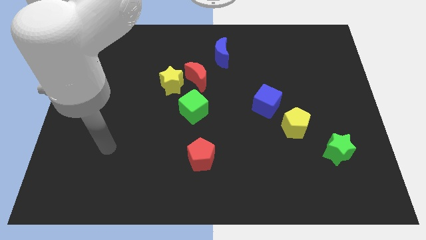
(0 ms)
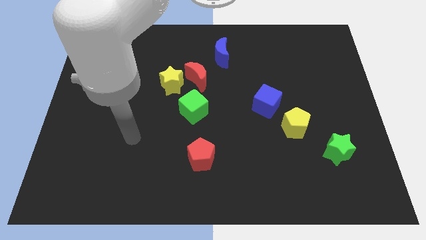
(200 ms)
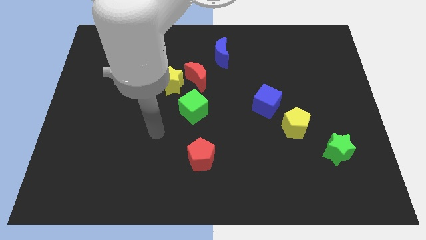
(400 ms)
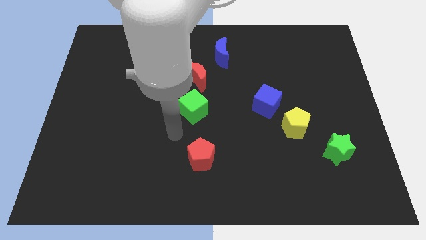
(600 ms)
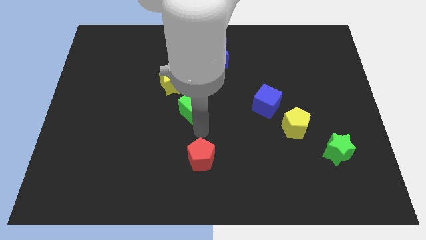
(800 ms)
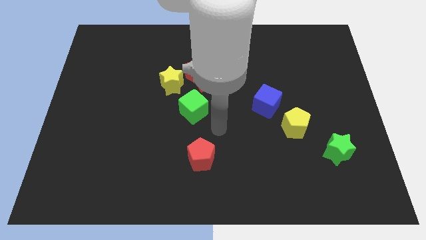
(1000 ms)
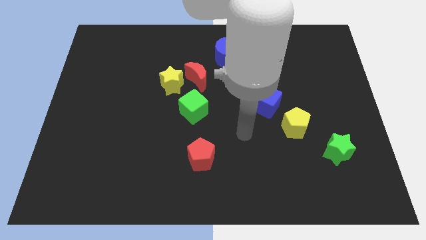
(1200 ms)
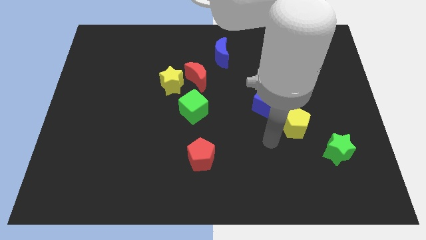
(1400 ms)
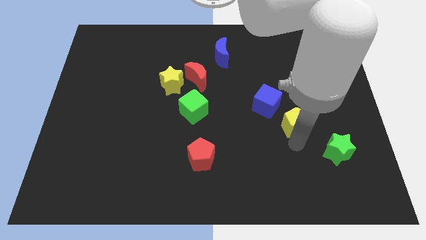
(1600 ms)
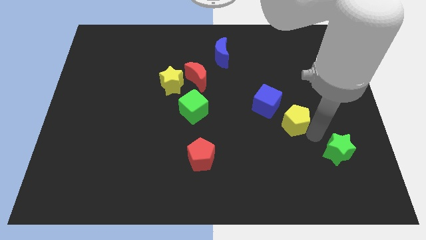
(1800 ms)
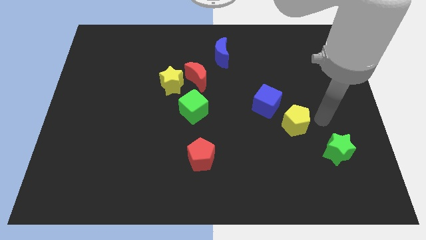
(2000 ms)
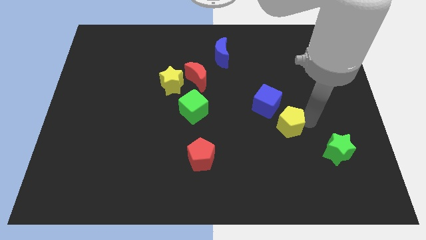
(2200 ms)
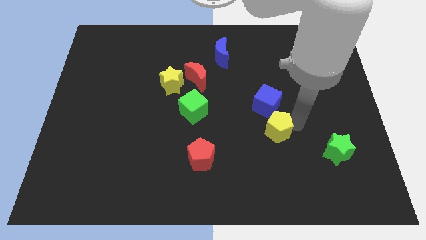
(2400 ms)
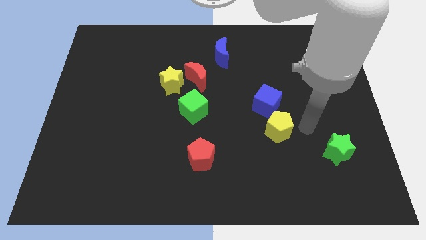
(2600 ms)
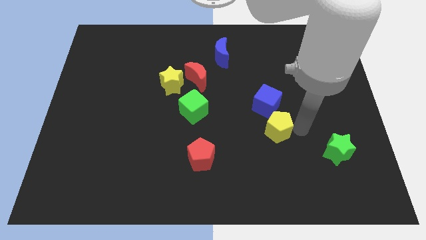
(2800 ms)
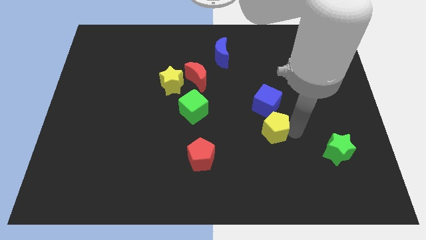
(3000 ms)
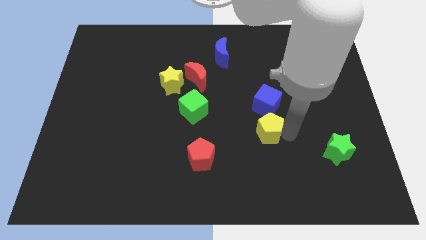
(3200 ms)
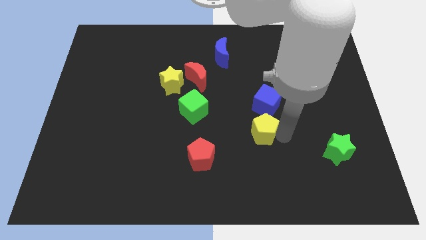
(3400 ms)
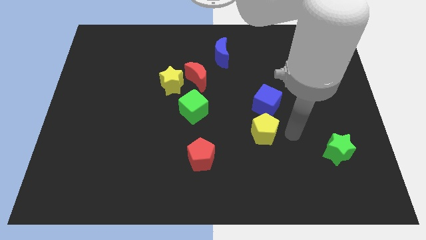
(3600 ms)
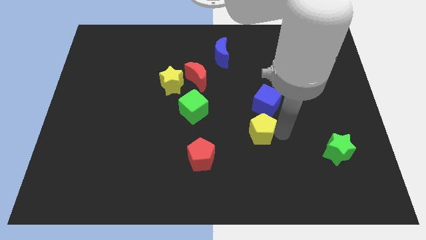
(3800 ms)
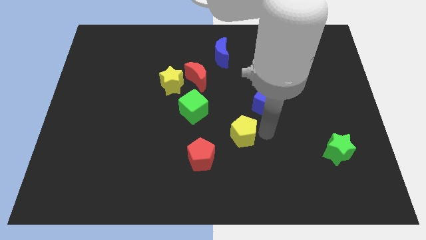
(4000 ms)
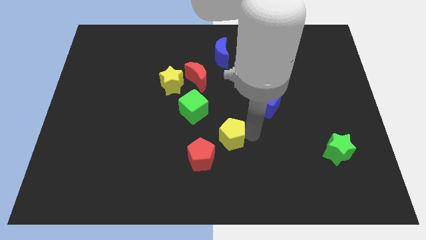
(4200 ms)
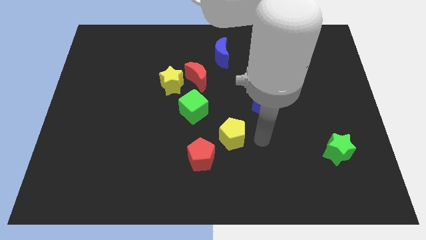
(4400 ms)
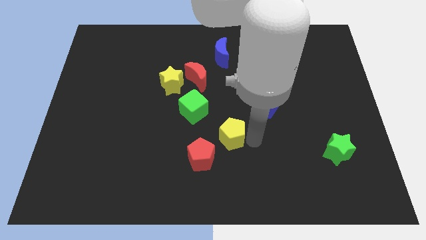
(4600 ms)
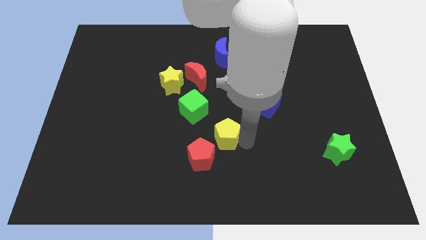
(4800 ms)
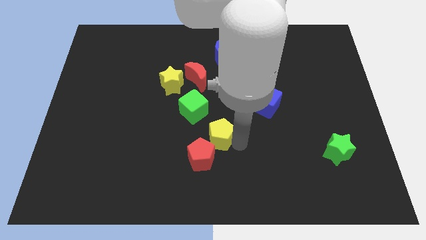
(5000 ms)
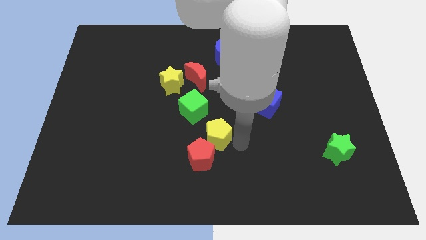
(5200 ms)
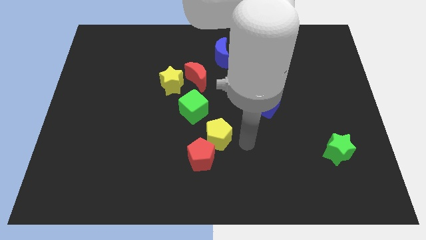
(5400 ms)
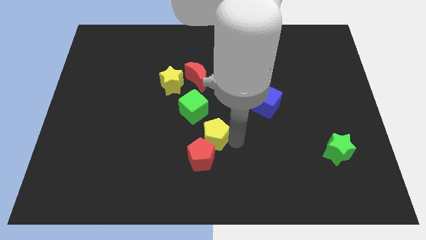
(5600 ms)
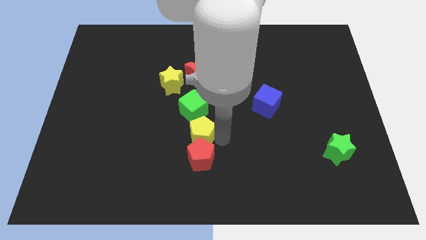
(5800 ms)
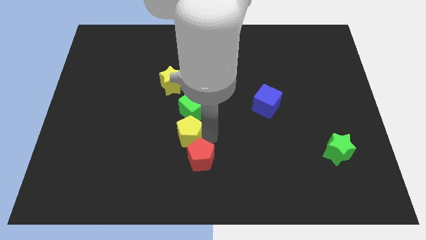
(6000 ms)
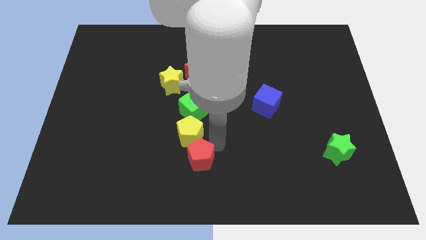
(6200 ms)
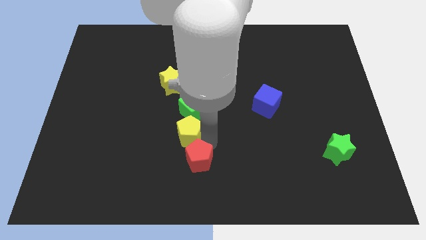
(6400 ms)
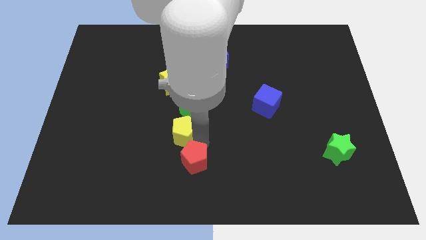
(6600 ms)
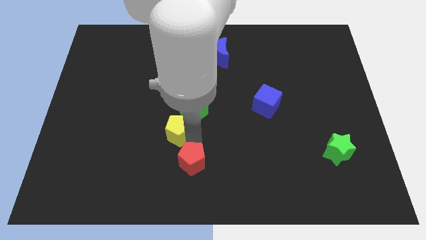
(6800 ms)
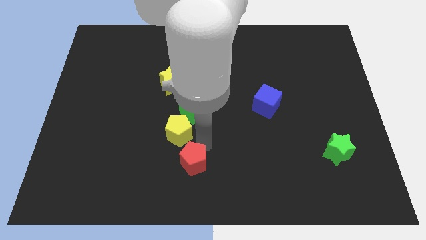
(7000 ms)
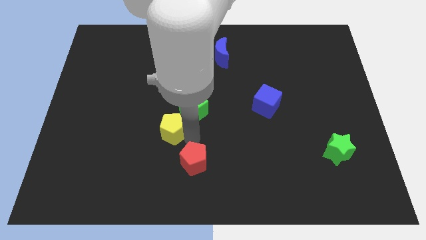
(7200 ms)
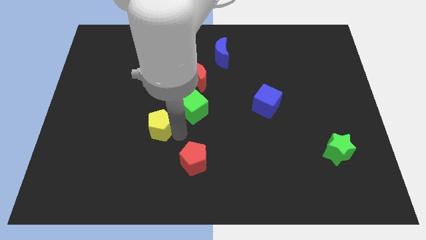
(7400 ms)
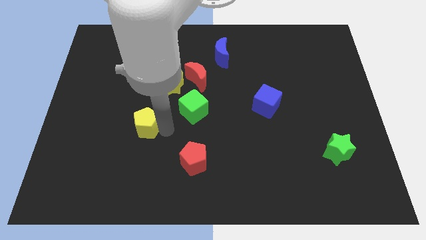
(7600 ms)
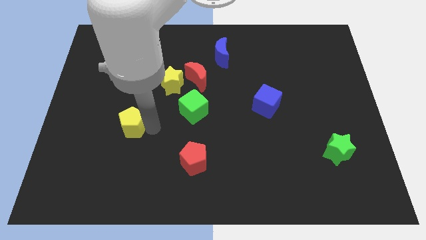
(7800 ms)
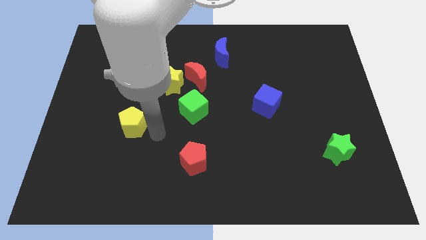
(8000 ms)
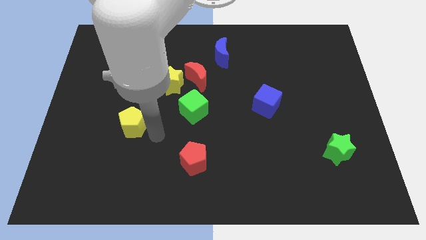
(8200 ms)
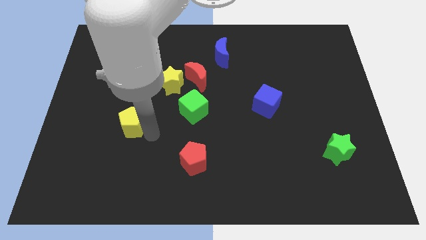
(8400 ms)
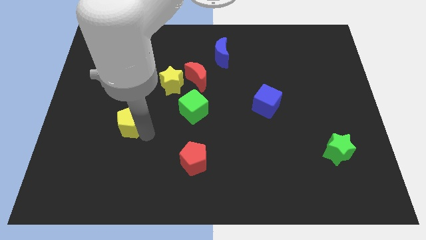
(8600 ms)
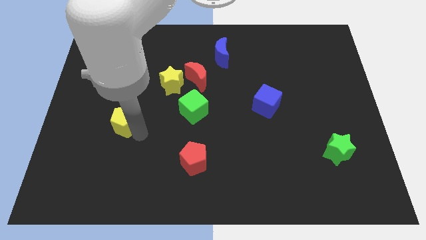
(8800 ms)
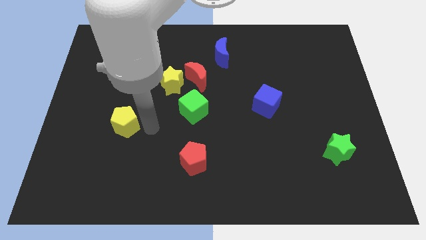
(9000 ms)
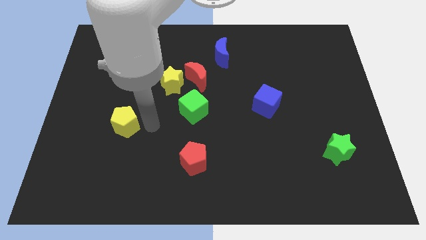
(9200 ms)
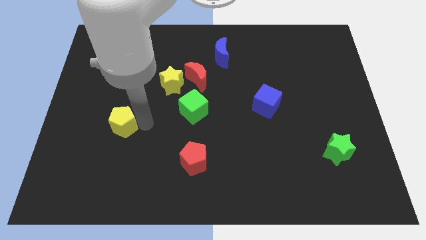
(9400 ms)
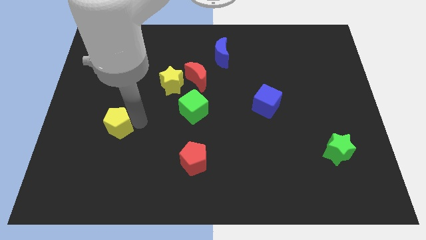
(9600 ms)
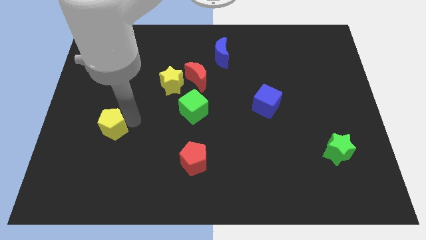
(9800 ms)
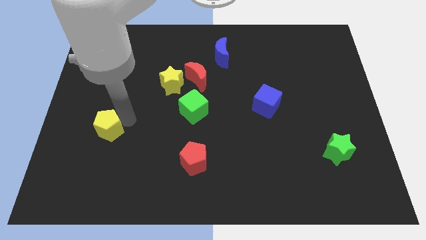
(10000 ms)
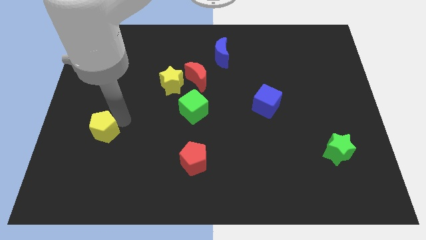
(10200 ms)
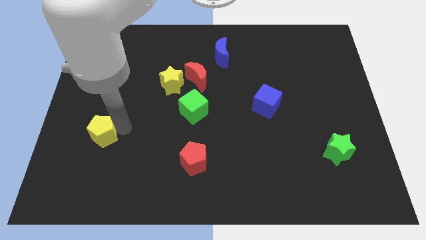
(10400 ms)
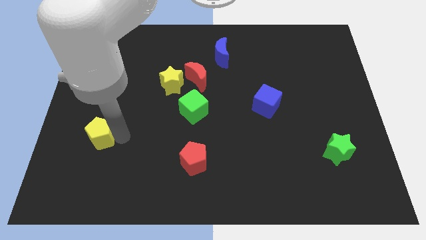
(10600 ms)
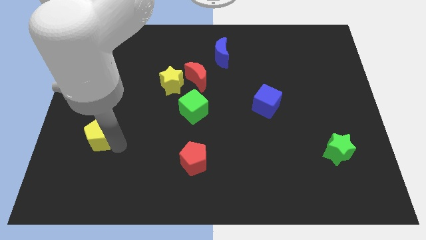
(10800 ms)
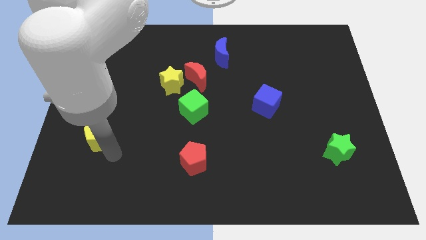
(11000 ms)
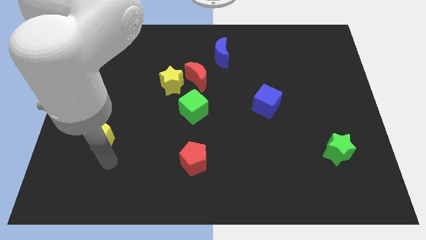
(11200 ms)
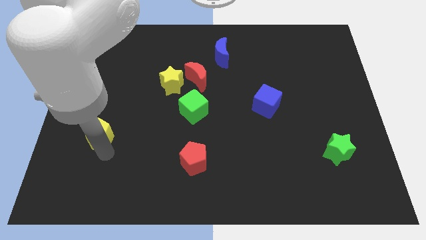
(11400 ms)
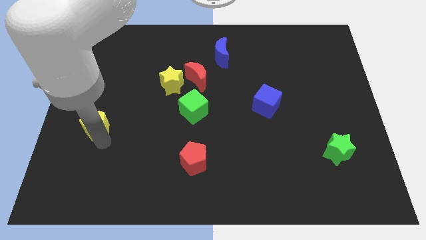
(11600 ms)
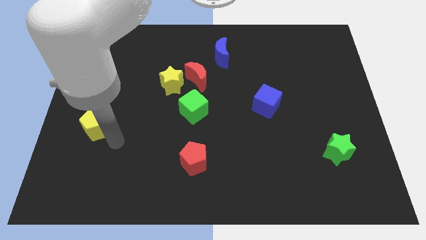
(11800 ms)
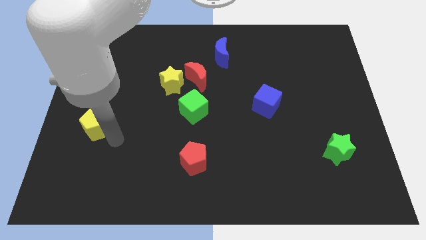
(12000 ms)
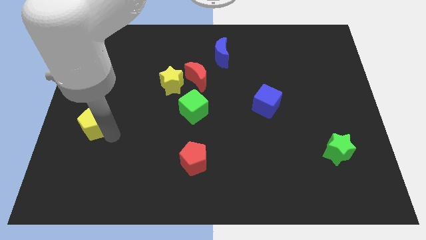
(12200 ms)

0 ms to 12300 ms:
move the yellow pentagon to the center left
